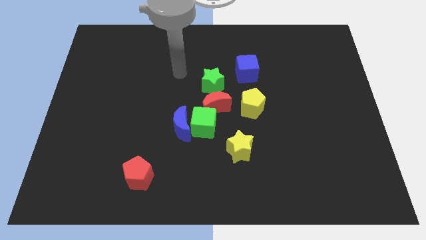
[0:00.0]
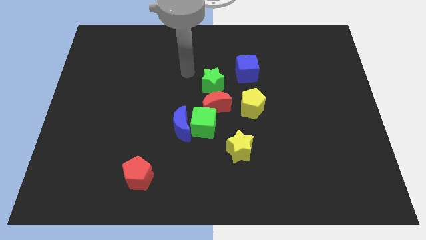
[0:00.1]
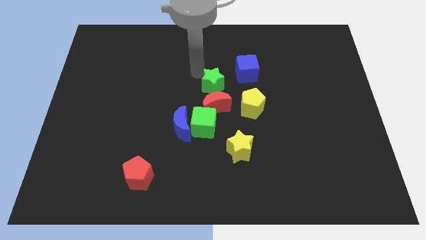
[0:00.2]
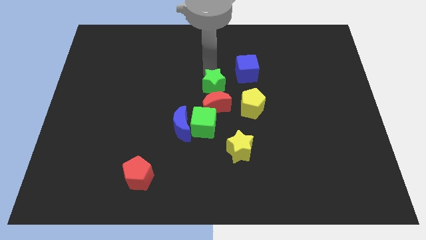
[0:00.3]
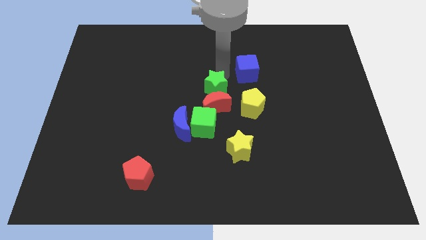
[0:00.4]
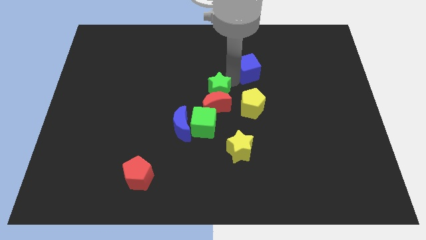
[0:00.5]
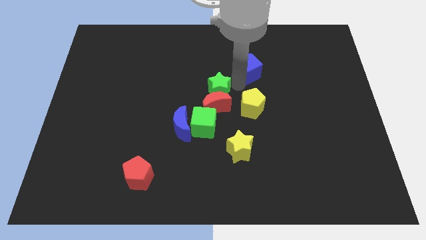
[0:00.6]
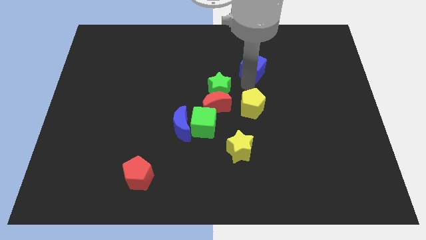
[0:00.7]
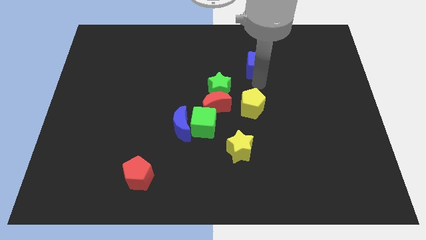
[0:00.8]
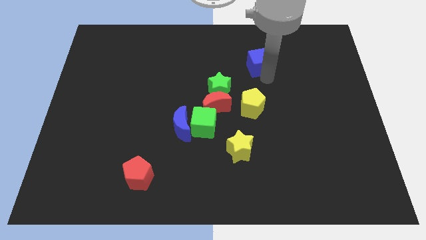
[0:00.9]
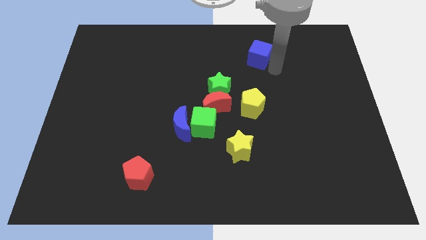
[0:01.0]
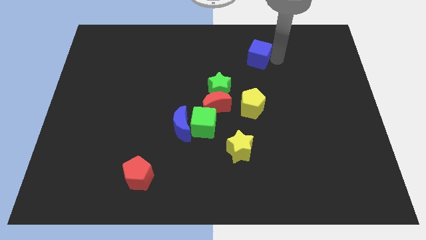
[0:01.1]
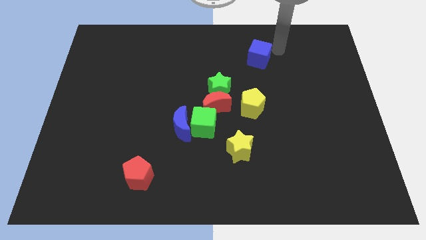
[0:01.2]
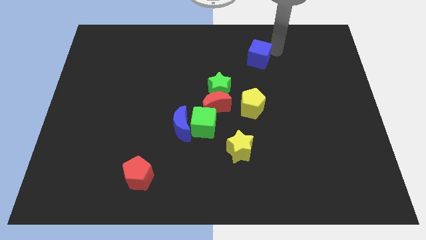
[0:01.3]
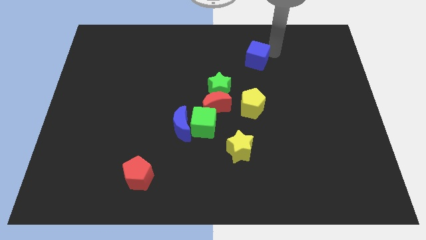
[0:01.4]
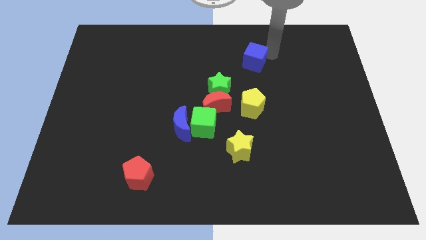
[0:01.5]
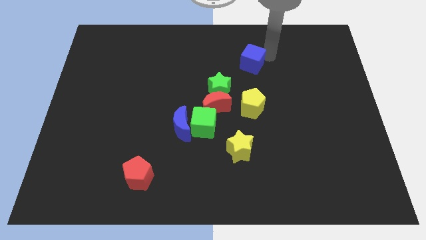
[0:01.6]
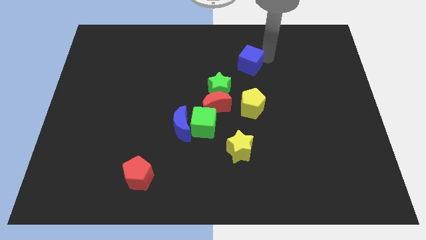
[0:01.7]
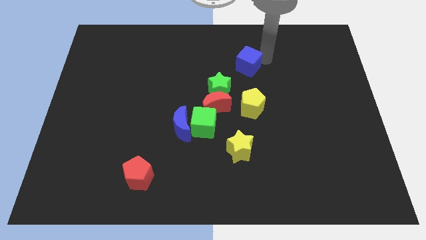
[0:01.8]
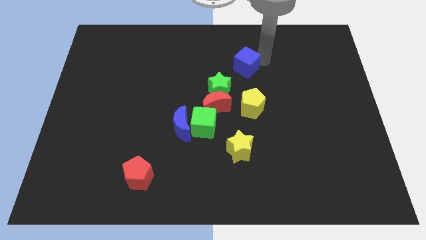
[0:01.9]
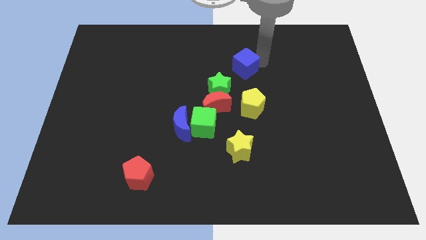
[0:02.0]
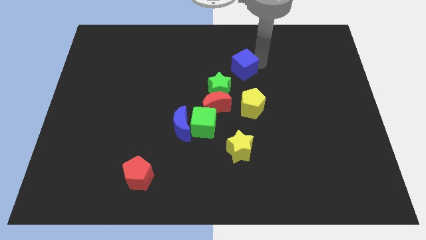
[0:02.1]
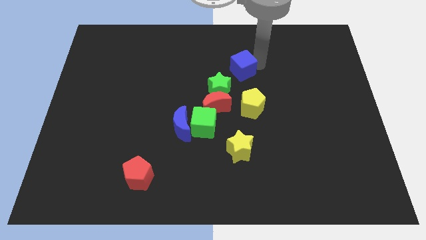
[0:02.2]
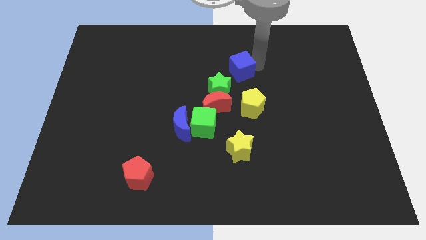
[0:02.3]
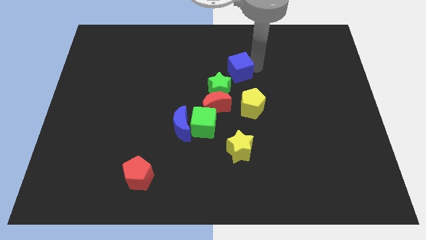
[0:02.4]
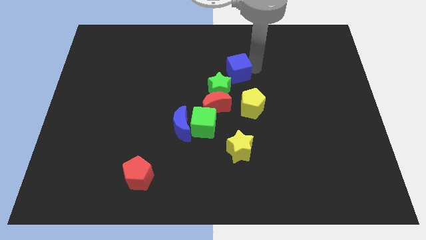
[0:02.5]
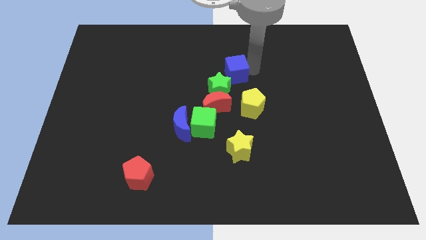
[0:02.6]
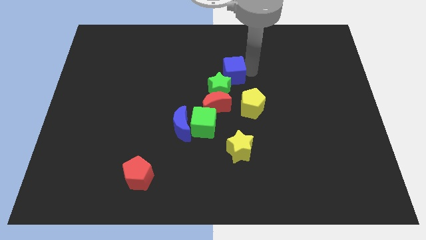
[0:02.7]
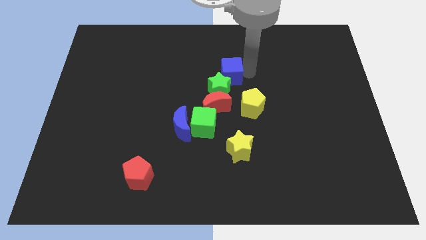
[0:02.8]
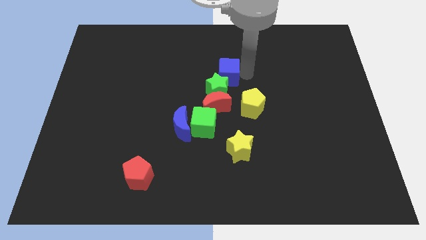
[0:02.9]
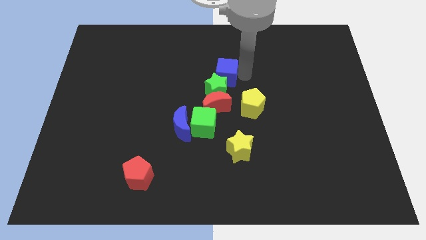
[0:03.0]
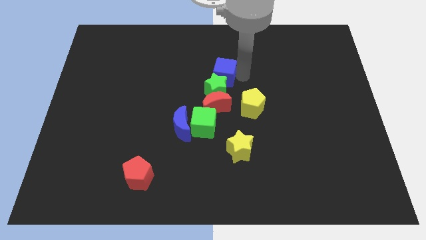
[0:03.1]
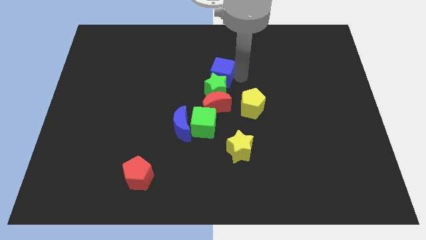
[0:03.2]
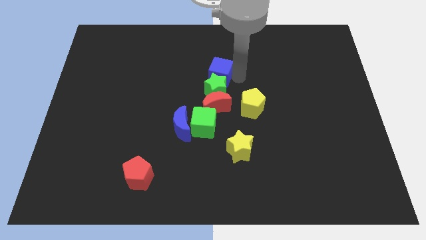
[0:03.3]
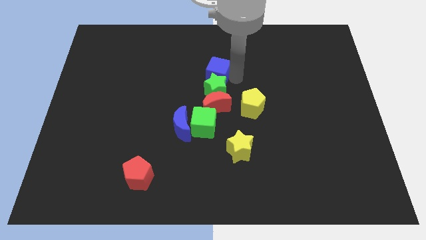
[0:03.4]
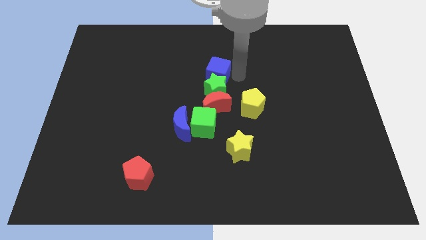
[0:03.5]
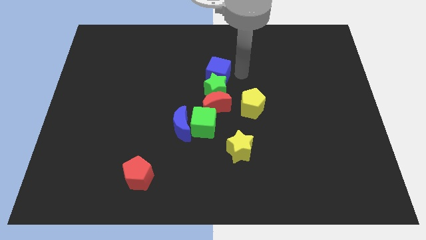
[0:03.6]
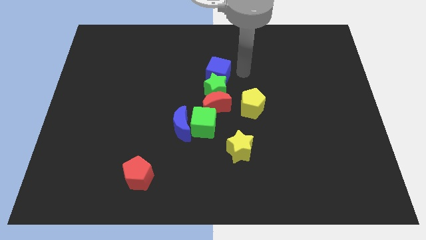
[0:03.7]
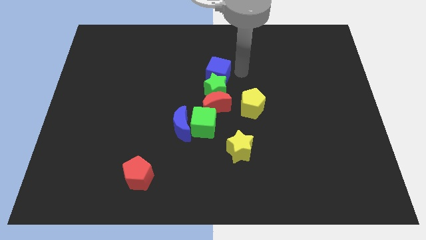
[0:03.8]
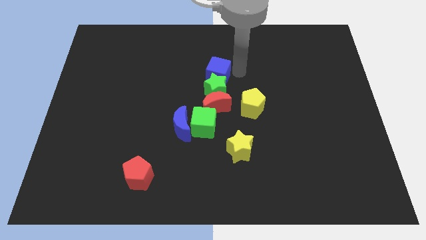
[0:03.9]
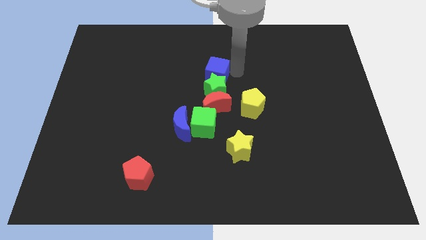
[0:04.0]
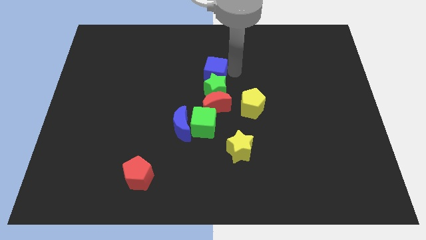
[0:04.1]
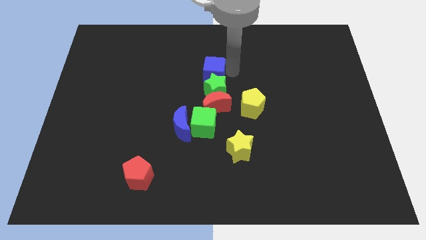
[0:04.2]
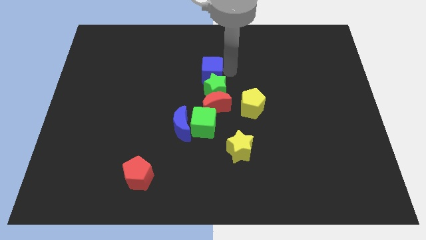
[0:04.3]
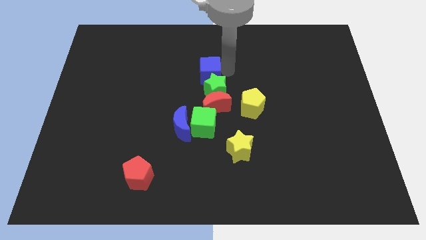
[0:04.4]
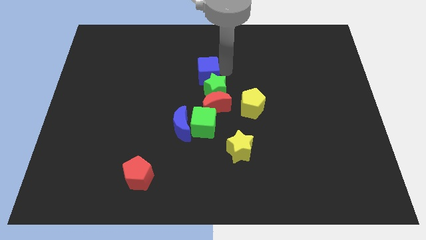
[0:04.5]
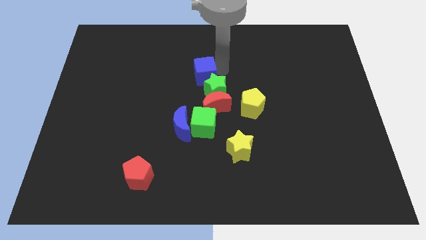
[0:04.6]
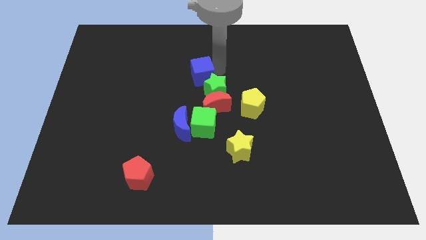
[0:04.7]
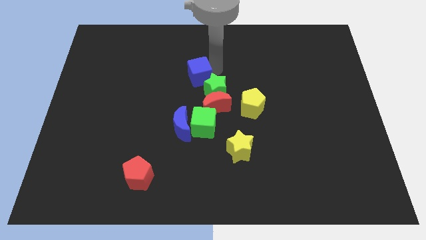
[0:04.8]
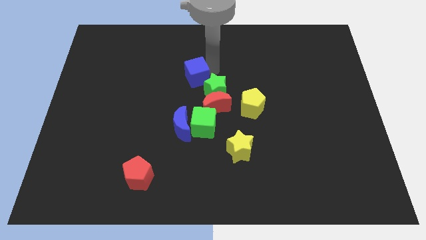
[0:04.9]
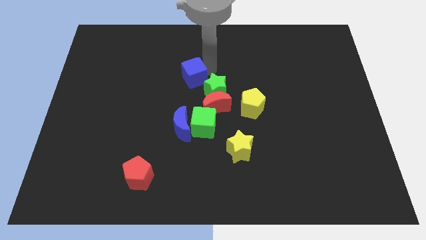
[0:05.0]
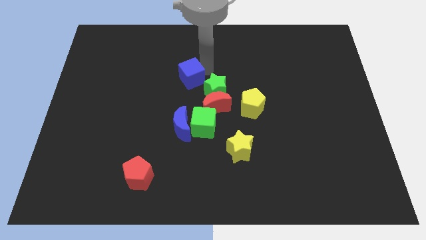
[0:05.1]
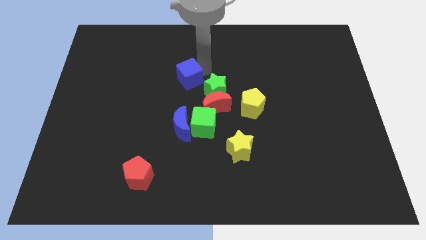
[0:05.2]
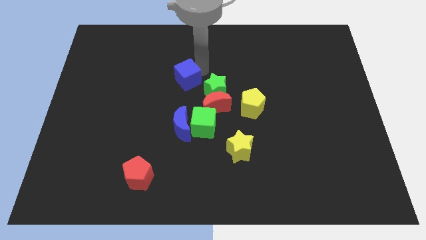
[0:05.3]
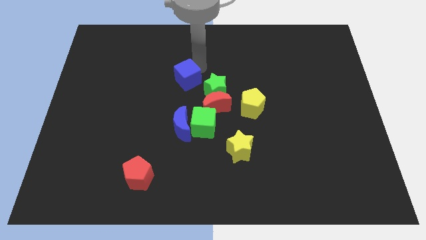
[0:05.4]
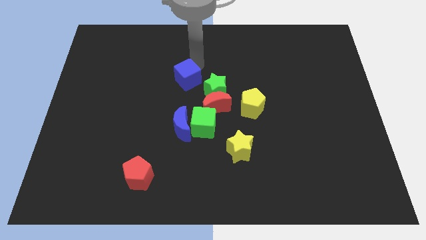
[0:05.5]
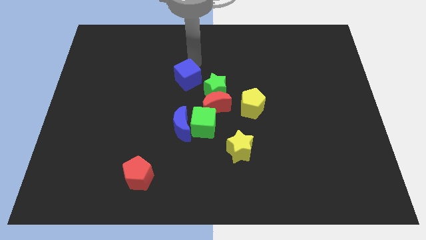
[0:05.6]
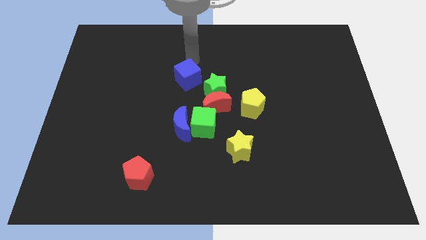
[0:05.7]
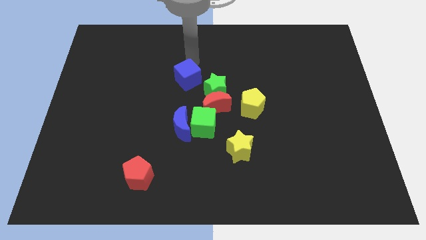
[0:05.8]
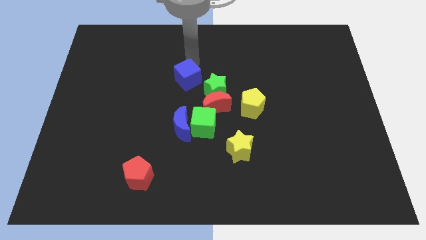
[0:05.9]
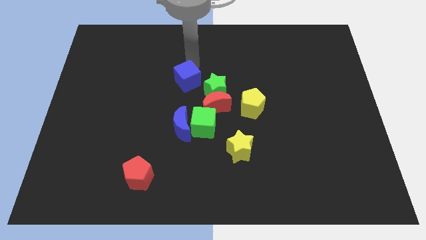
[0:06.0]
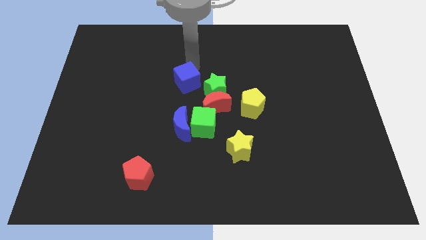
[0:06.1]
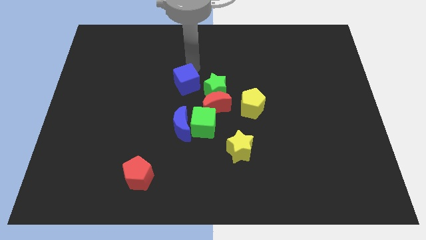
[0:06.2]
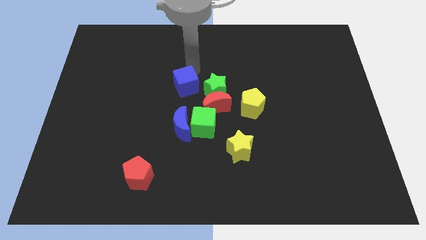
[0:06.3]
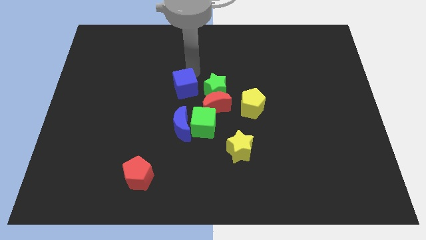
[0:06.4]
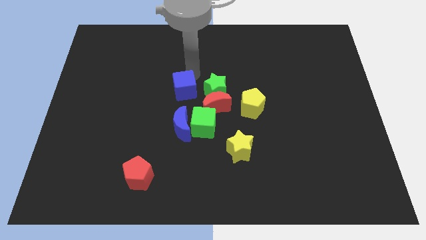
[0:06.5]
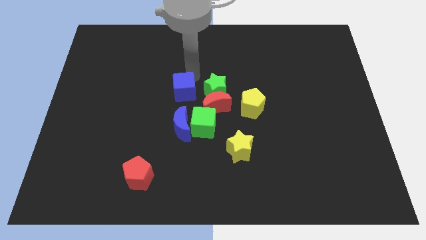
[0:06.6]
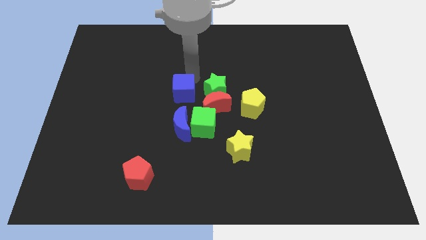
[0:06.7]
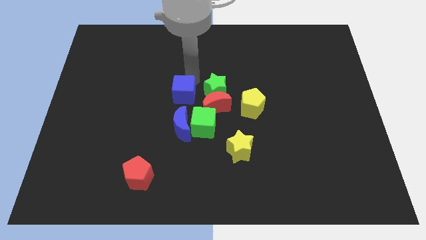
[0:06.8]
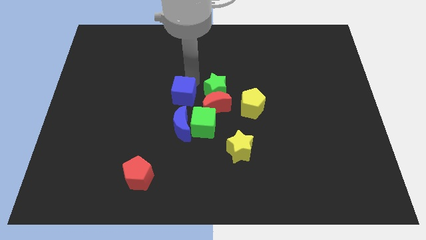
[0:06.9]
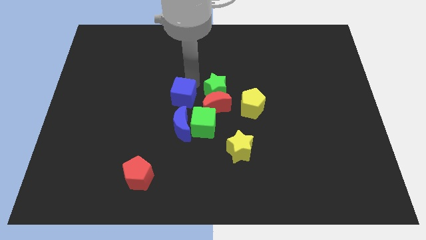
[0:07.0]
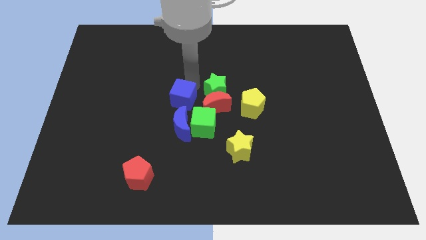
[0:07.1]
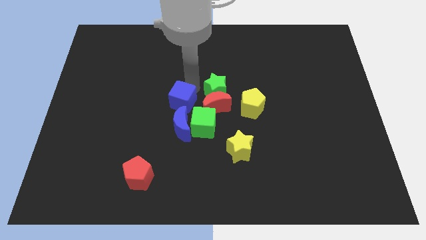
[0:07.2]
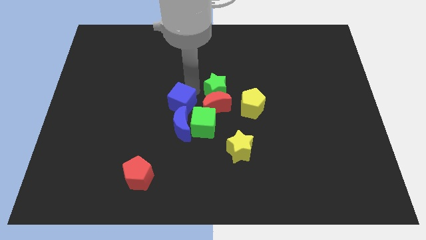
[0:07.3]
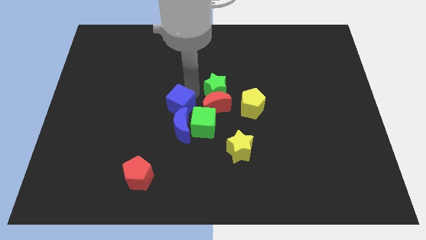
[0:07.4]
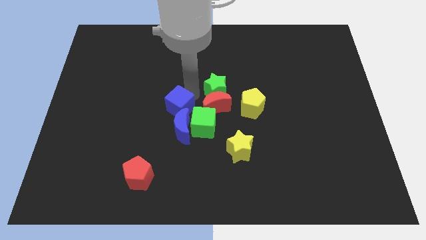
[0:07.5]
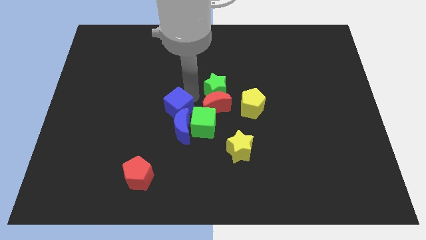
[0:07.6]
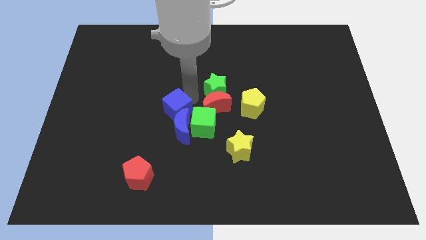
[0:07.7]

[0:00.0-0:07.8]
slide the blue cube down and left

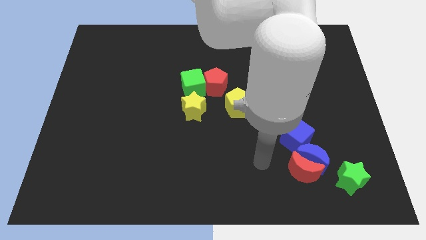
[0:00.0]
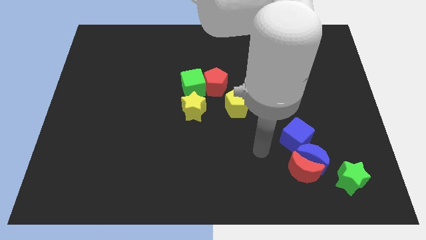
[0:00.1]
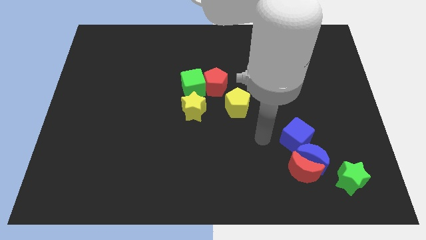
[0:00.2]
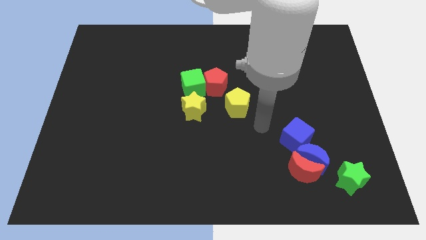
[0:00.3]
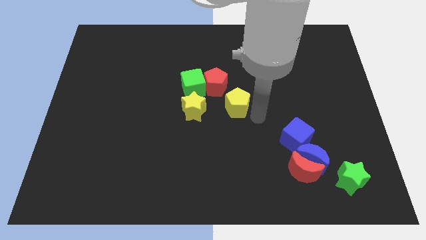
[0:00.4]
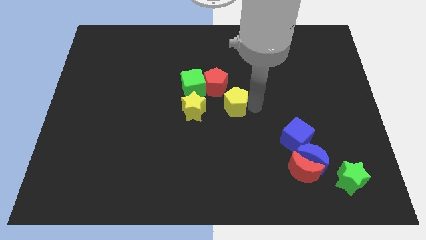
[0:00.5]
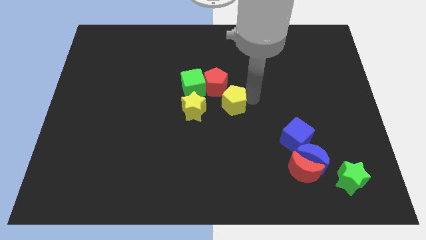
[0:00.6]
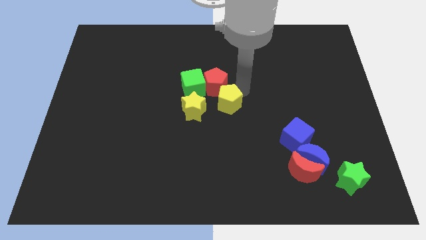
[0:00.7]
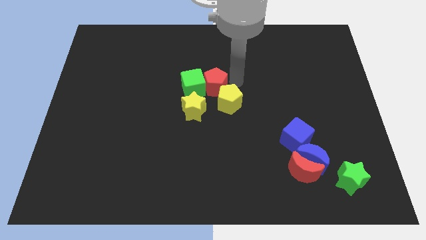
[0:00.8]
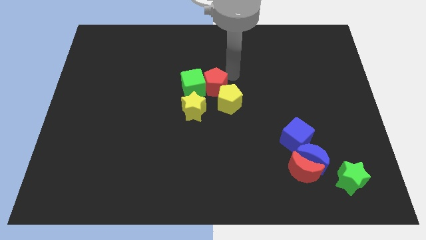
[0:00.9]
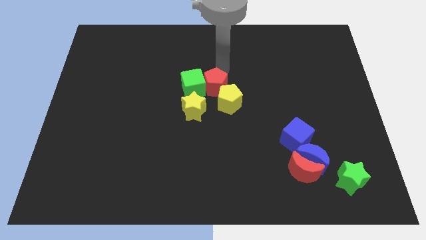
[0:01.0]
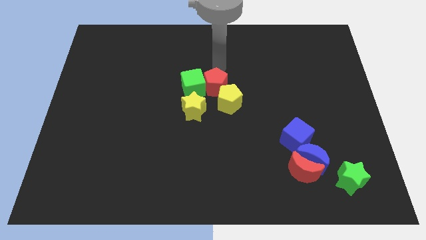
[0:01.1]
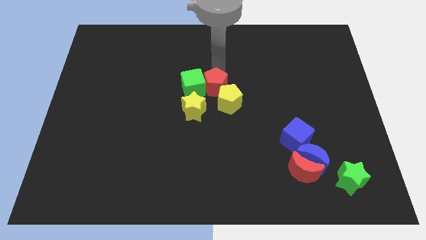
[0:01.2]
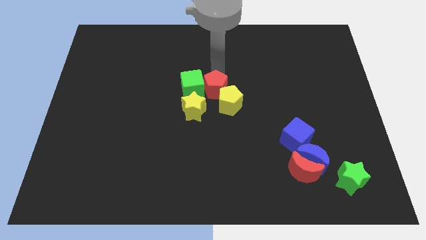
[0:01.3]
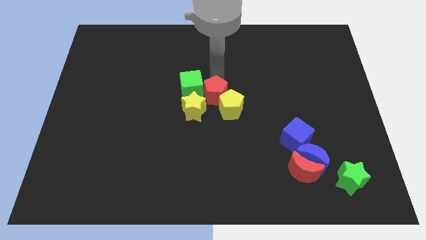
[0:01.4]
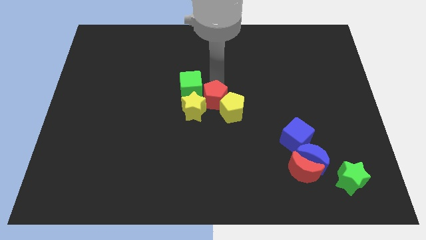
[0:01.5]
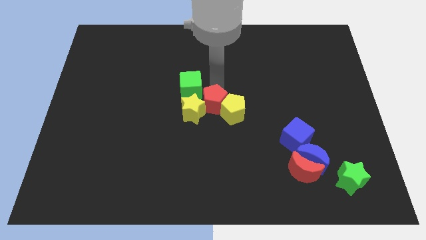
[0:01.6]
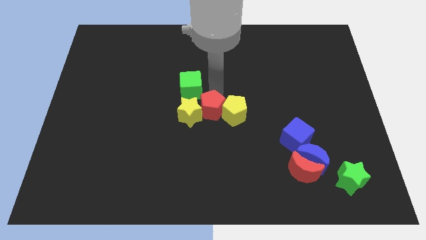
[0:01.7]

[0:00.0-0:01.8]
push the red pentagon downwards somewhat
